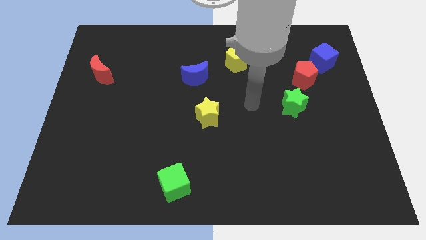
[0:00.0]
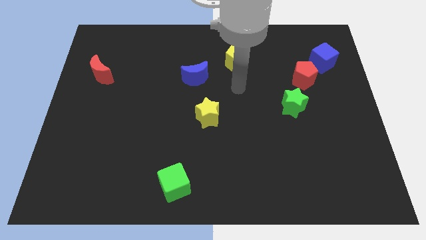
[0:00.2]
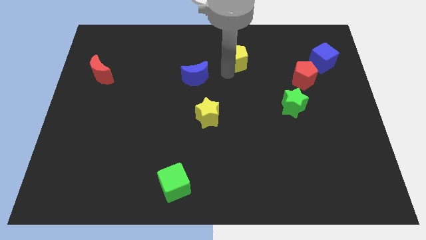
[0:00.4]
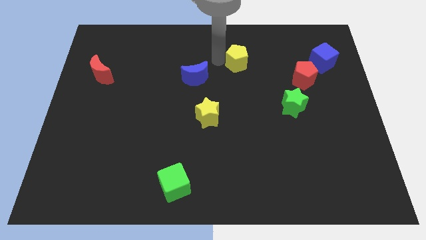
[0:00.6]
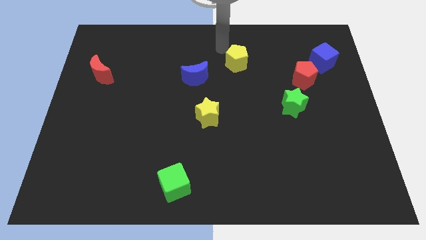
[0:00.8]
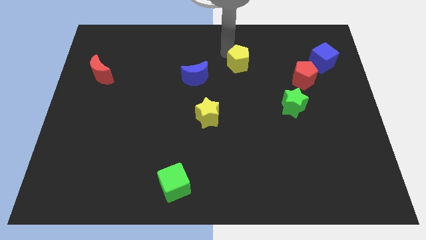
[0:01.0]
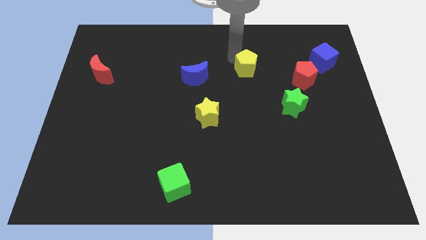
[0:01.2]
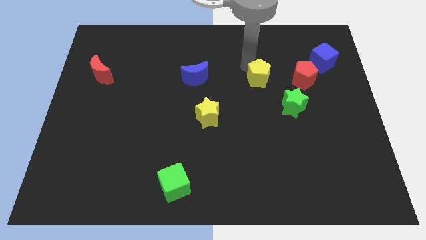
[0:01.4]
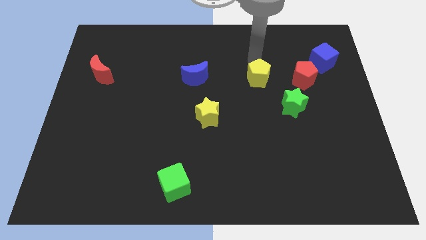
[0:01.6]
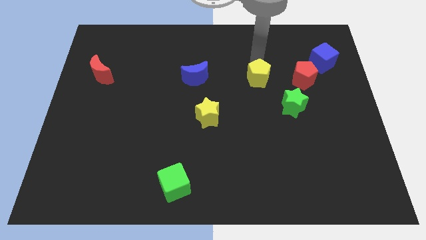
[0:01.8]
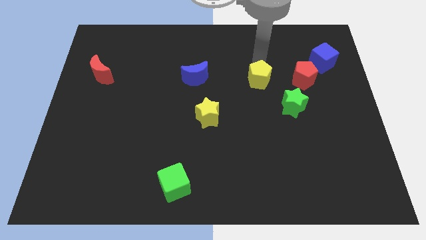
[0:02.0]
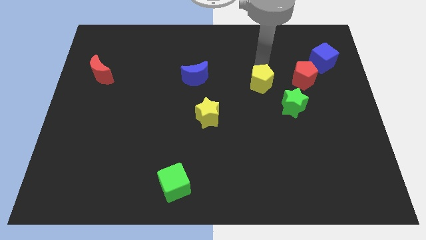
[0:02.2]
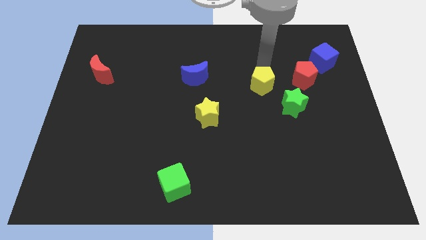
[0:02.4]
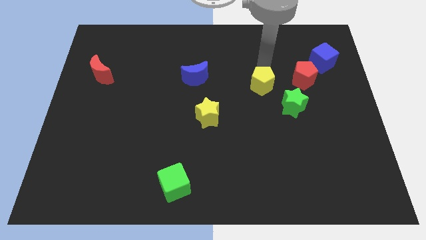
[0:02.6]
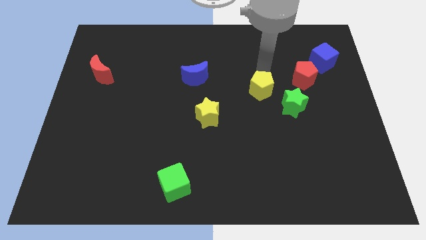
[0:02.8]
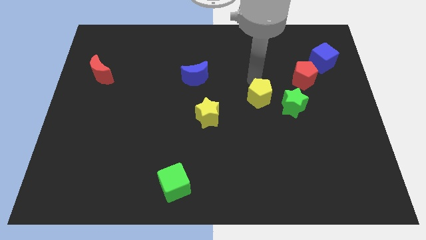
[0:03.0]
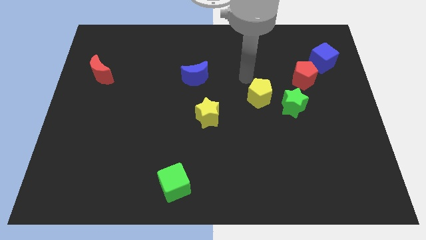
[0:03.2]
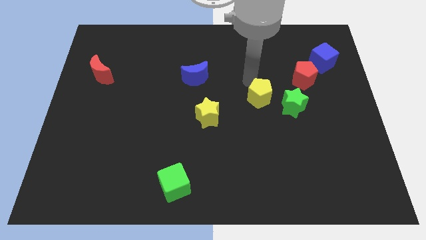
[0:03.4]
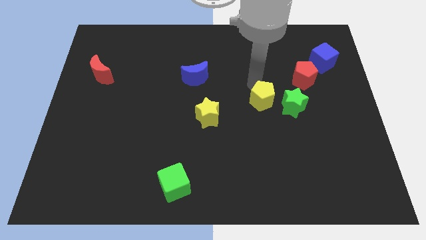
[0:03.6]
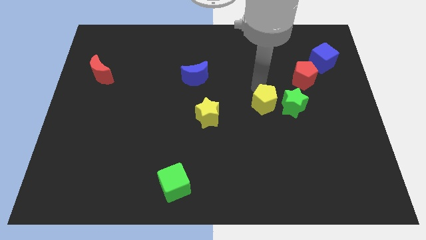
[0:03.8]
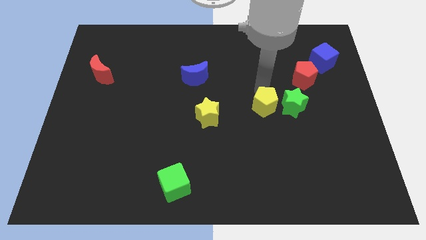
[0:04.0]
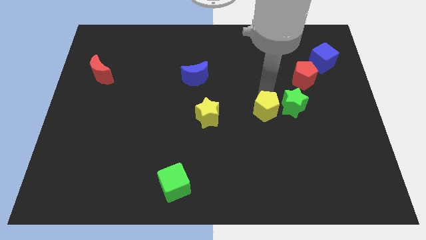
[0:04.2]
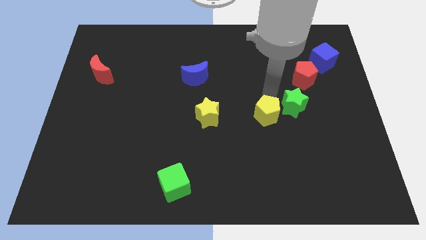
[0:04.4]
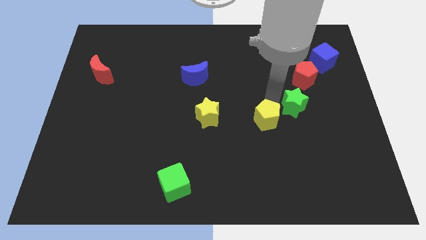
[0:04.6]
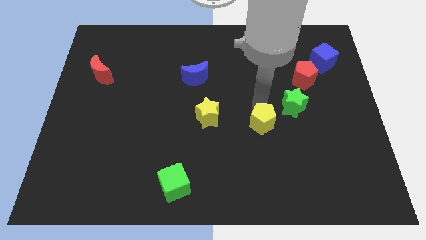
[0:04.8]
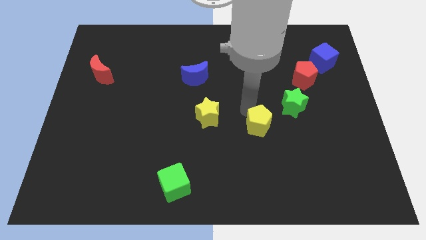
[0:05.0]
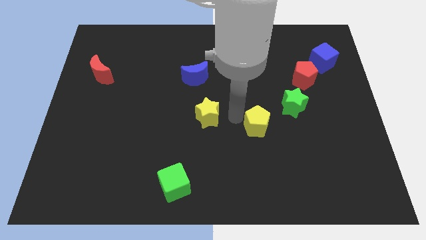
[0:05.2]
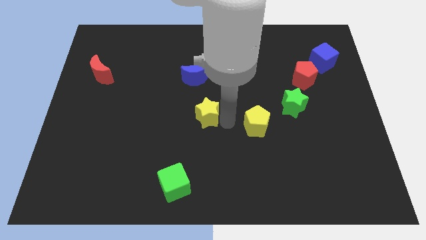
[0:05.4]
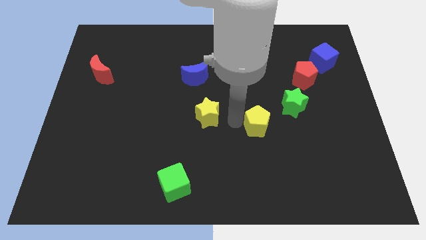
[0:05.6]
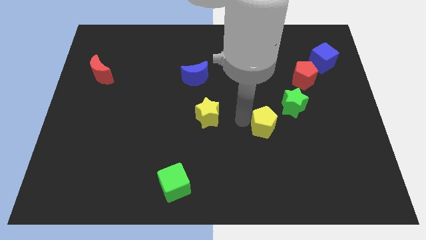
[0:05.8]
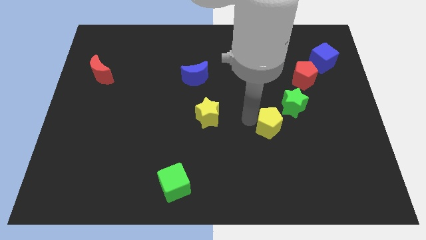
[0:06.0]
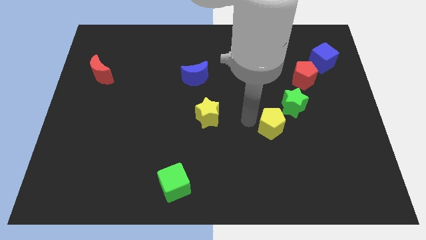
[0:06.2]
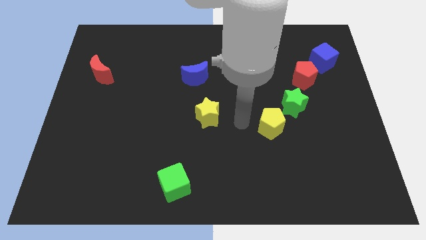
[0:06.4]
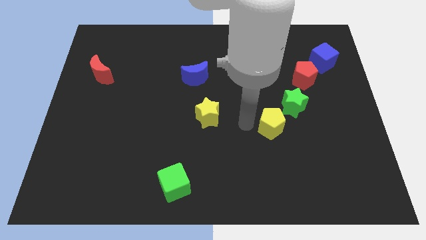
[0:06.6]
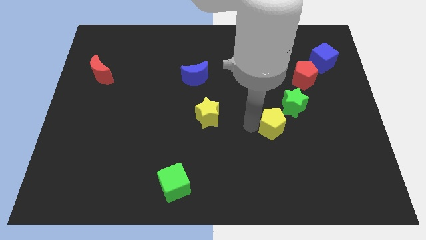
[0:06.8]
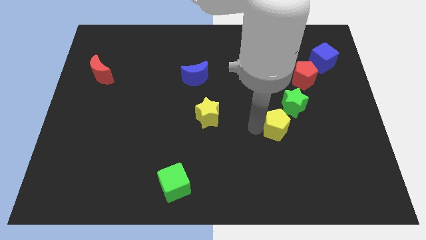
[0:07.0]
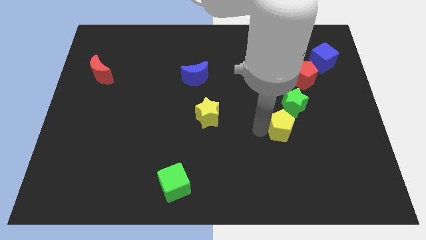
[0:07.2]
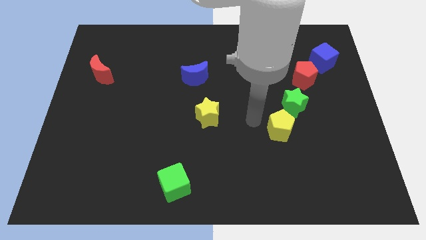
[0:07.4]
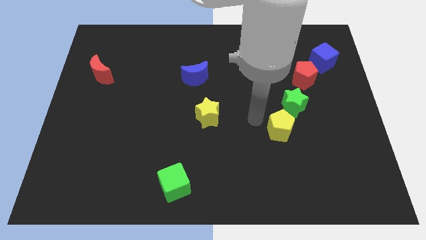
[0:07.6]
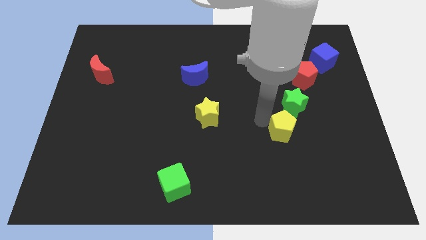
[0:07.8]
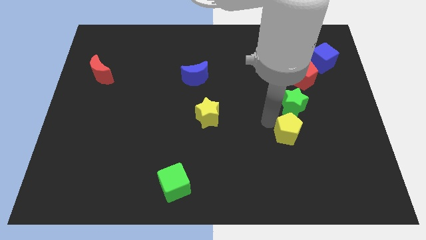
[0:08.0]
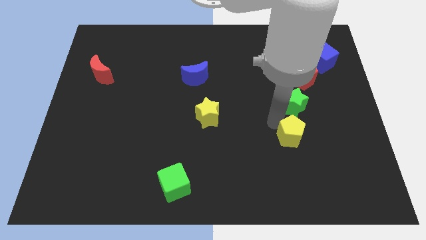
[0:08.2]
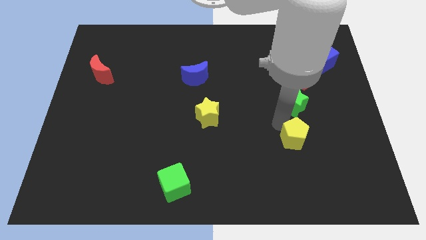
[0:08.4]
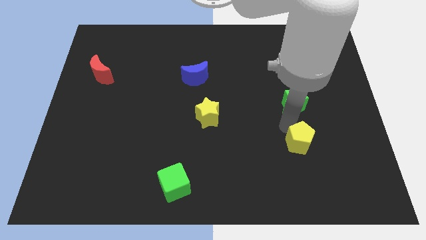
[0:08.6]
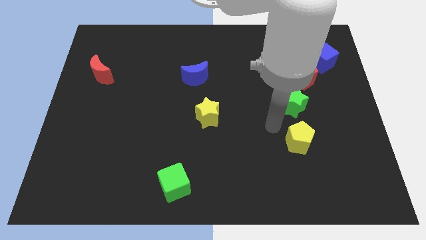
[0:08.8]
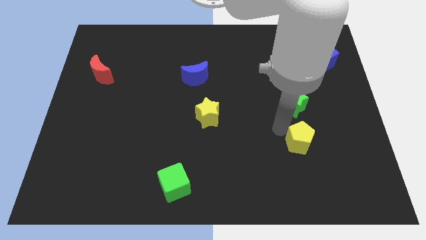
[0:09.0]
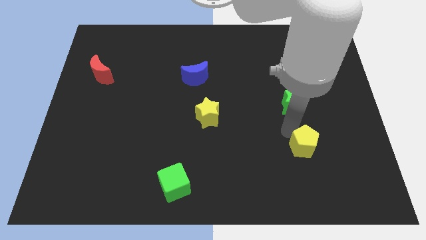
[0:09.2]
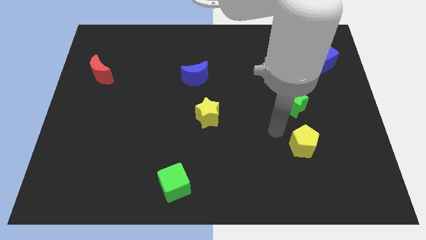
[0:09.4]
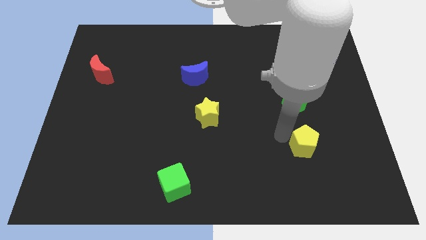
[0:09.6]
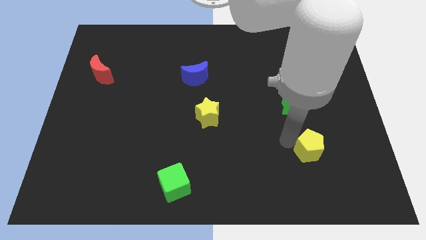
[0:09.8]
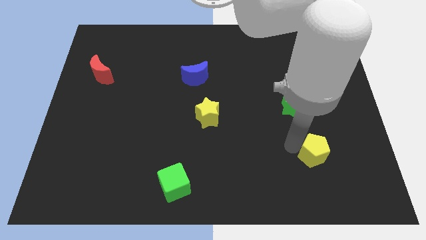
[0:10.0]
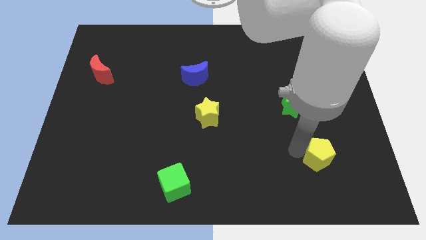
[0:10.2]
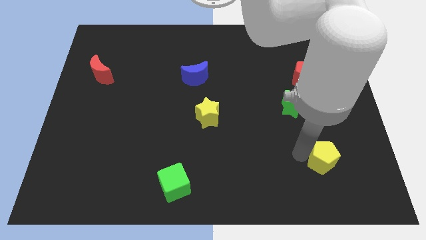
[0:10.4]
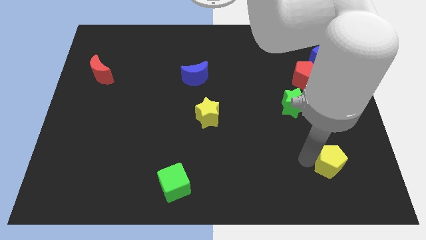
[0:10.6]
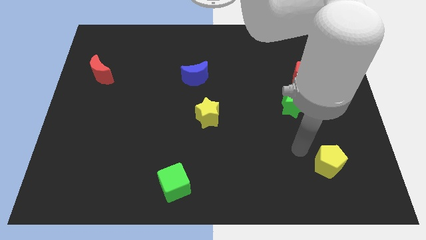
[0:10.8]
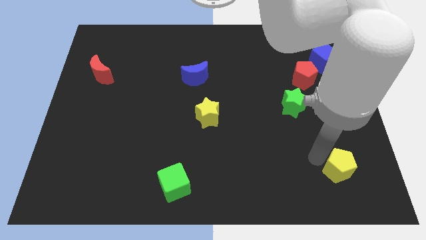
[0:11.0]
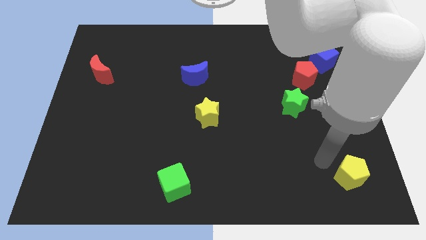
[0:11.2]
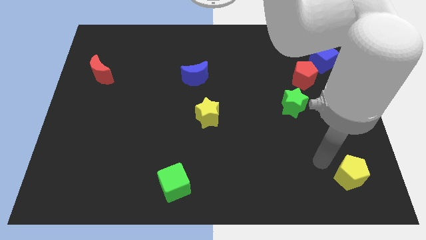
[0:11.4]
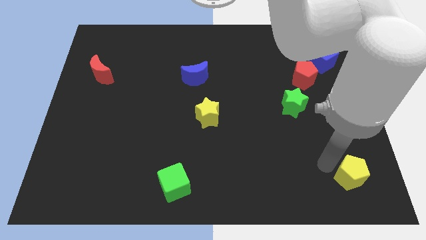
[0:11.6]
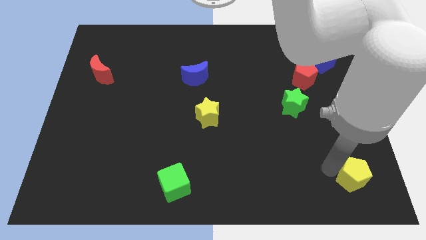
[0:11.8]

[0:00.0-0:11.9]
push the yellow pentagon to the bottom right of the board
